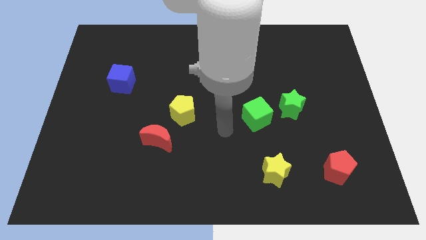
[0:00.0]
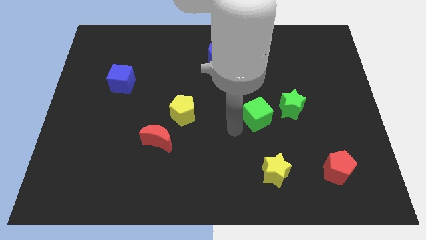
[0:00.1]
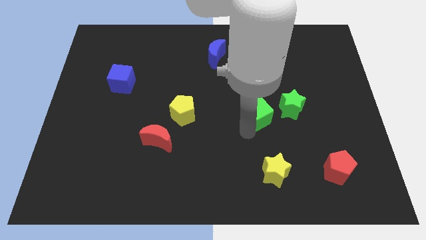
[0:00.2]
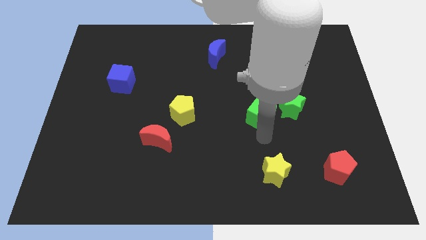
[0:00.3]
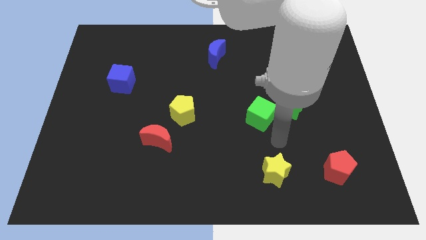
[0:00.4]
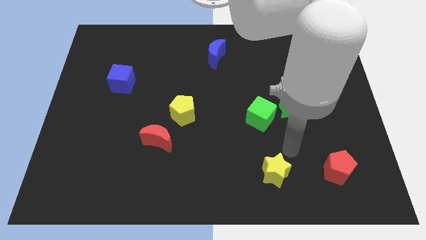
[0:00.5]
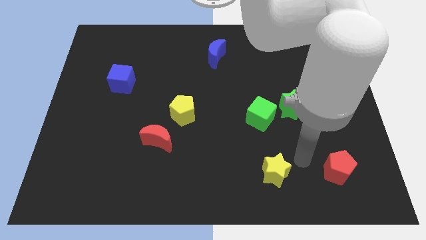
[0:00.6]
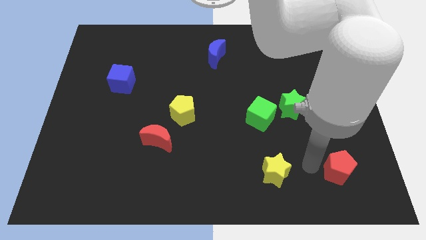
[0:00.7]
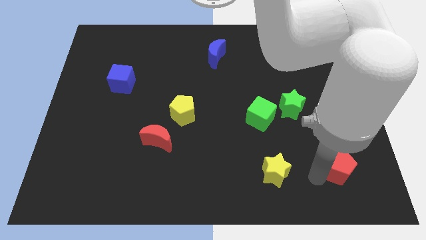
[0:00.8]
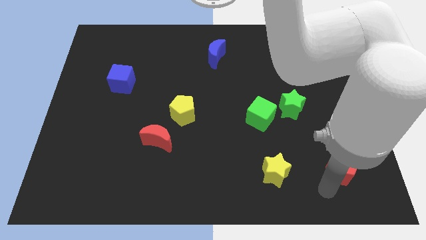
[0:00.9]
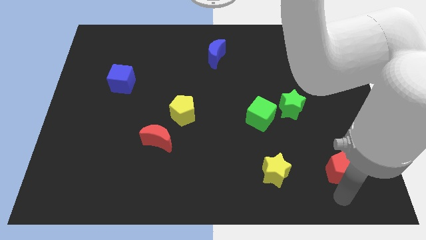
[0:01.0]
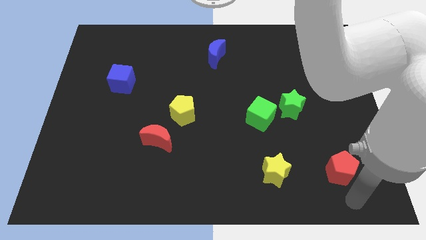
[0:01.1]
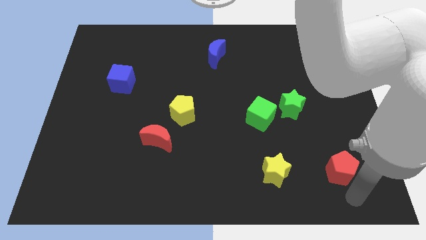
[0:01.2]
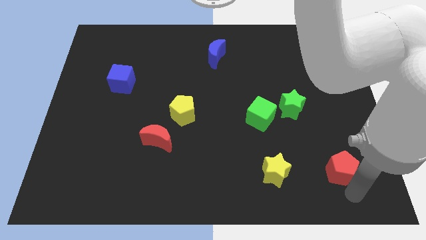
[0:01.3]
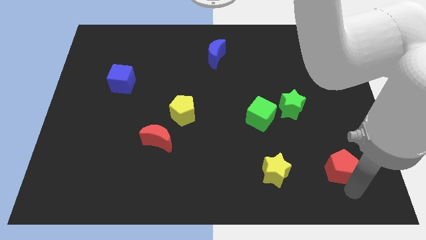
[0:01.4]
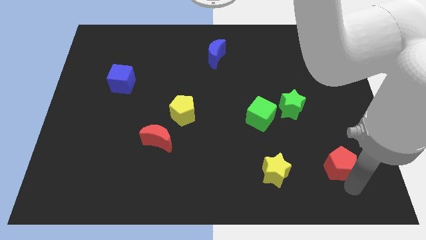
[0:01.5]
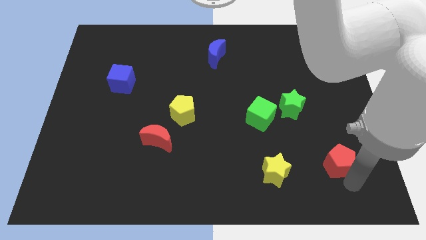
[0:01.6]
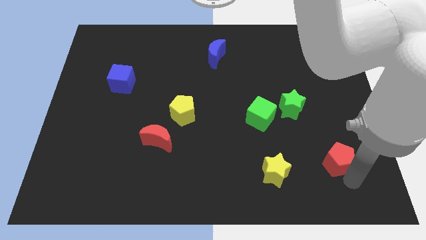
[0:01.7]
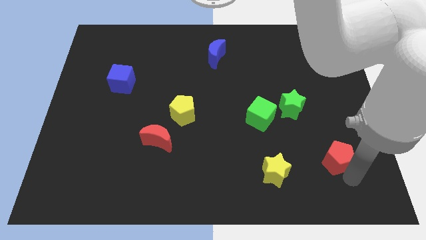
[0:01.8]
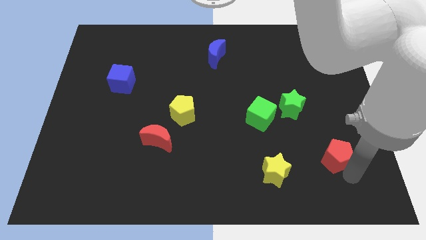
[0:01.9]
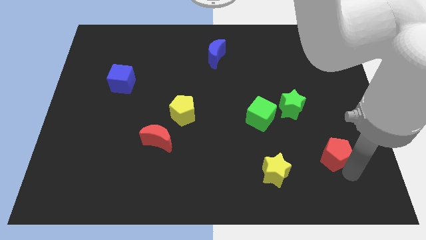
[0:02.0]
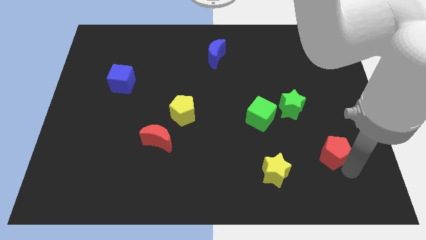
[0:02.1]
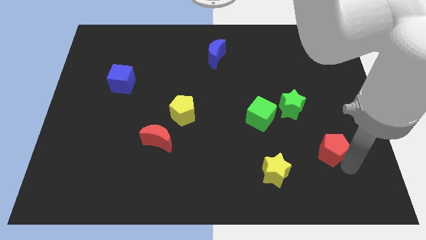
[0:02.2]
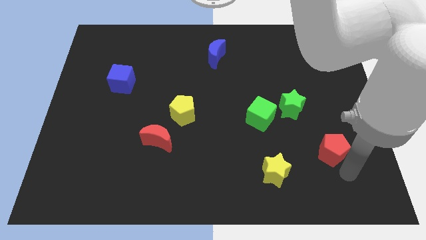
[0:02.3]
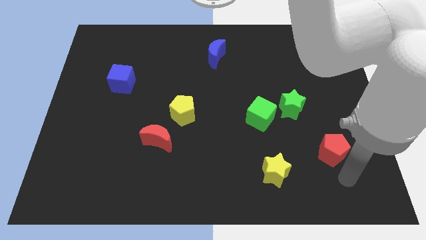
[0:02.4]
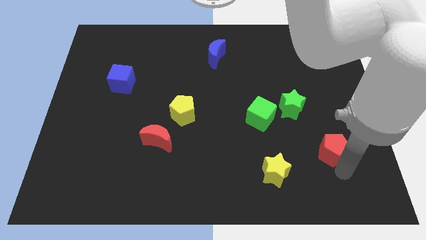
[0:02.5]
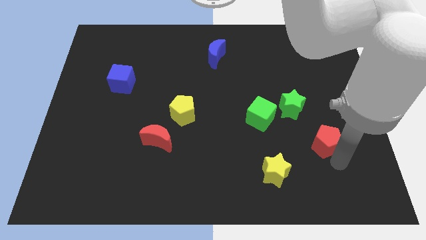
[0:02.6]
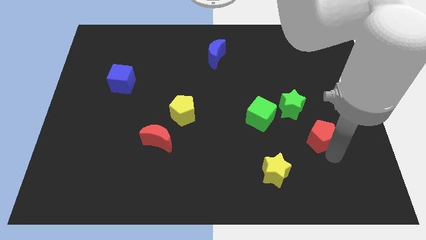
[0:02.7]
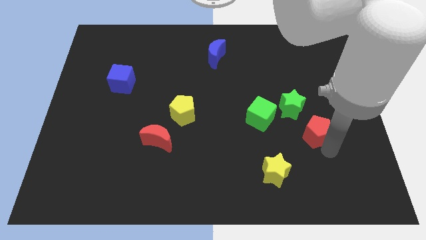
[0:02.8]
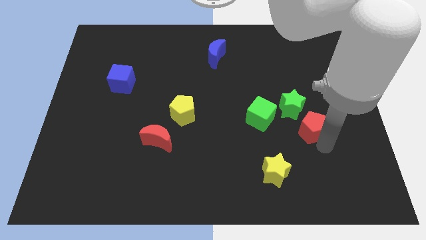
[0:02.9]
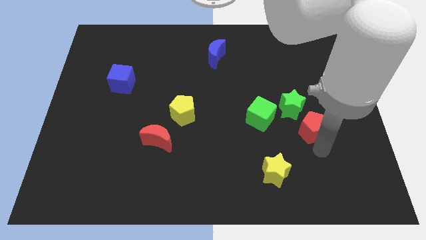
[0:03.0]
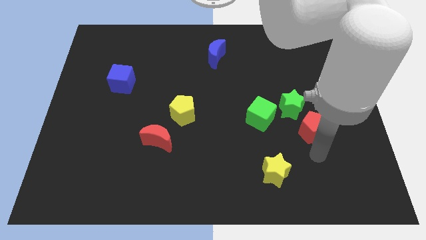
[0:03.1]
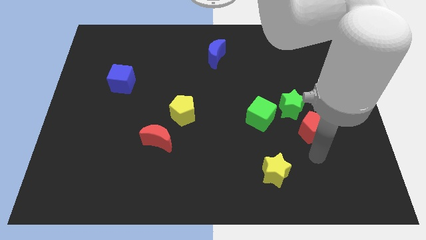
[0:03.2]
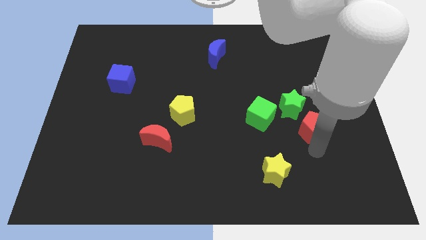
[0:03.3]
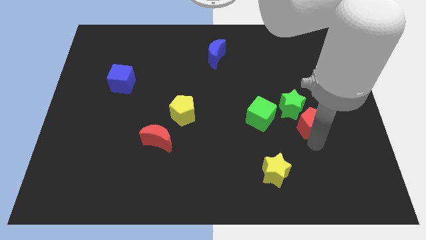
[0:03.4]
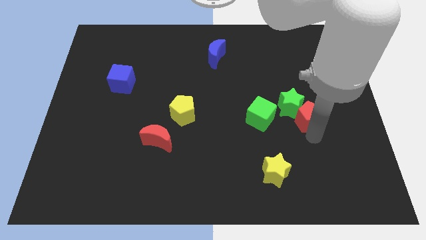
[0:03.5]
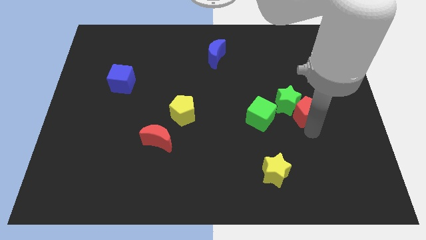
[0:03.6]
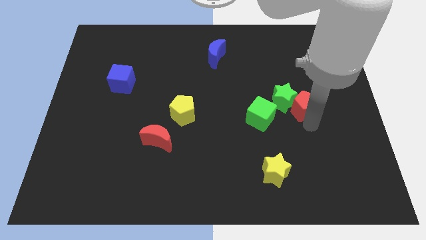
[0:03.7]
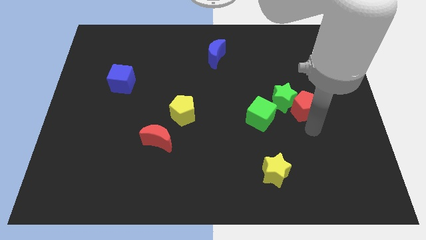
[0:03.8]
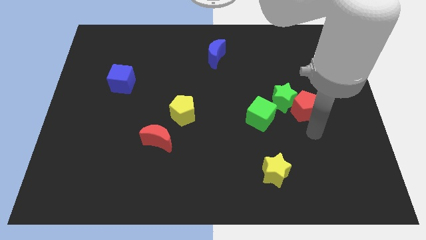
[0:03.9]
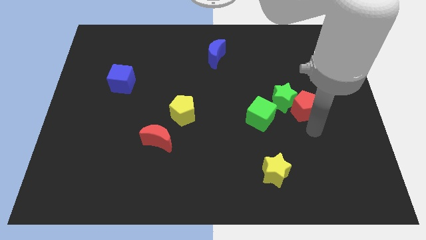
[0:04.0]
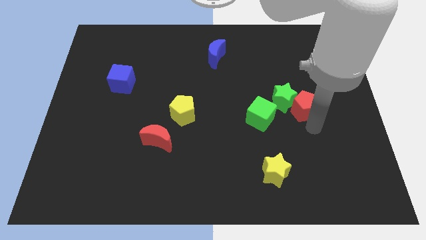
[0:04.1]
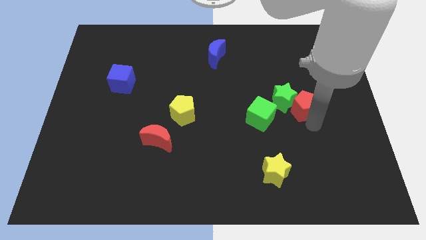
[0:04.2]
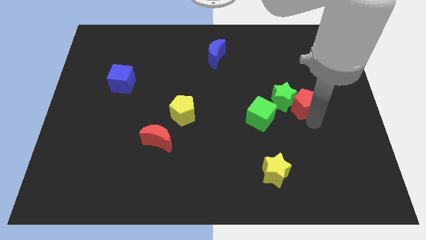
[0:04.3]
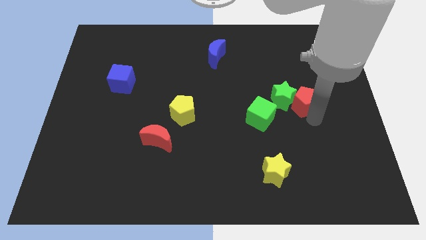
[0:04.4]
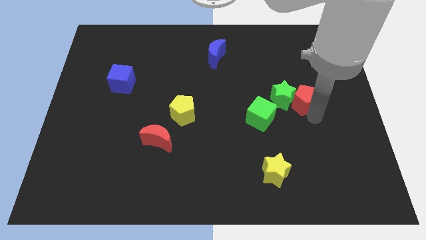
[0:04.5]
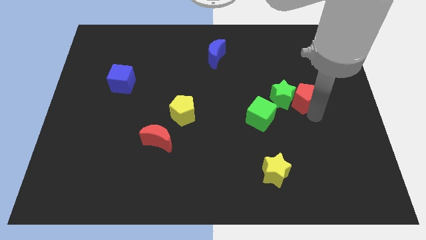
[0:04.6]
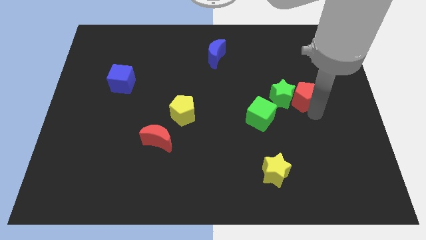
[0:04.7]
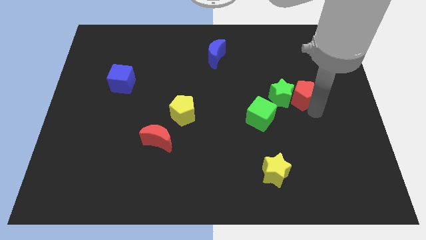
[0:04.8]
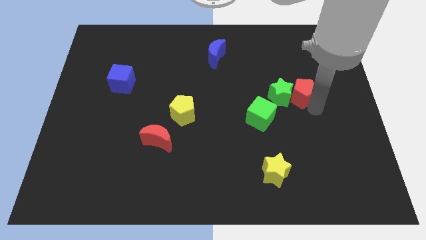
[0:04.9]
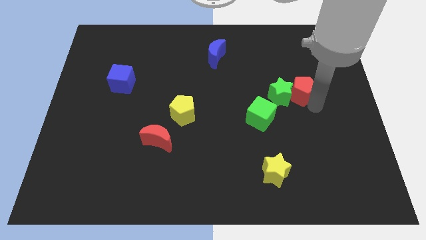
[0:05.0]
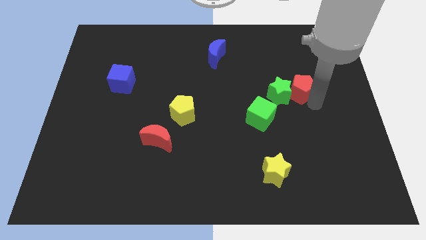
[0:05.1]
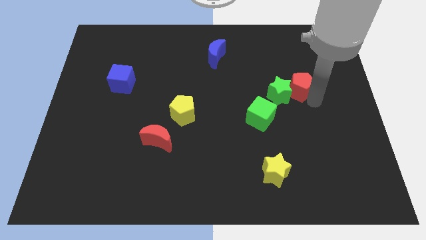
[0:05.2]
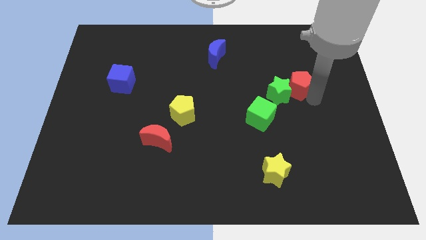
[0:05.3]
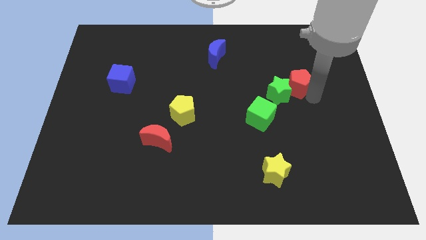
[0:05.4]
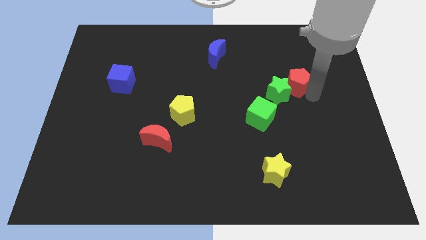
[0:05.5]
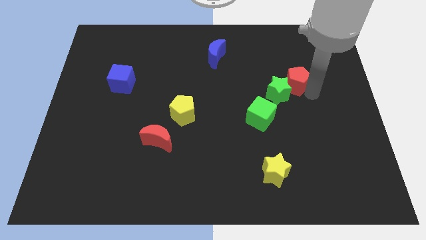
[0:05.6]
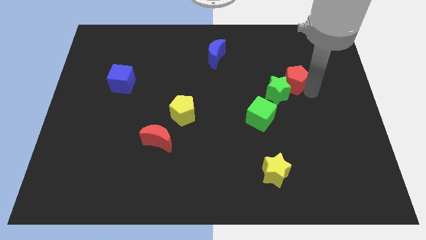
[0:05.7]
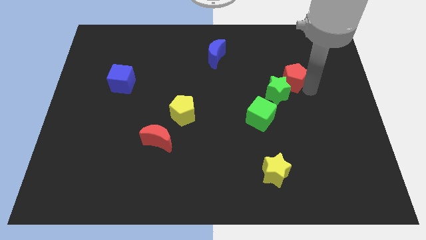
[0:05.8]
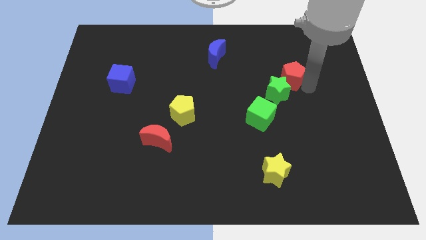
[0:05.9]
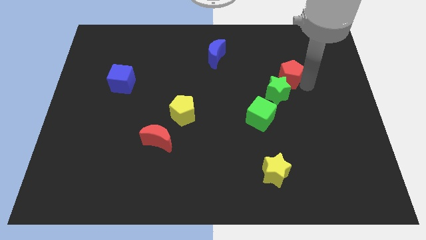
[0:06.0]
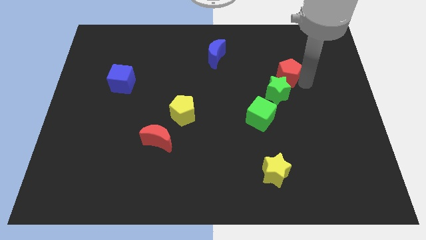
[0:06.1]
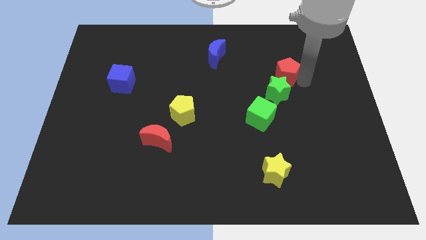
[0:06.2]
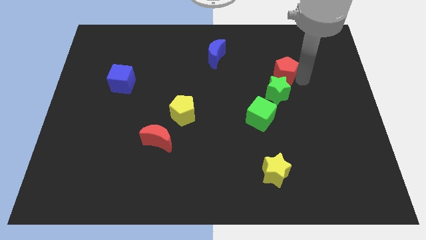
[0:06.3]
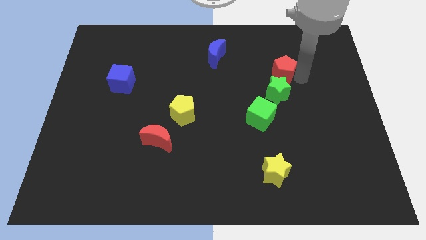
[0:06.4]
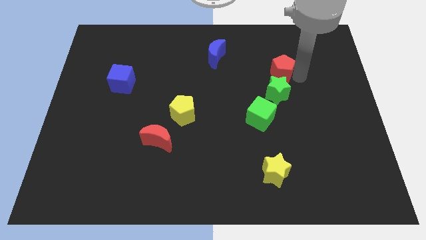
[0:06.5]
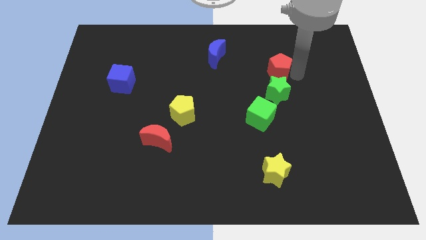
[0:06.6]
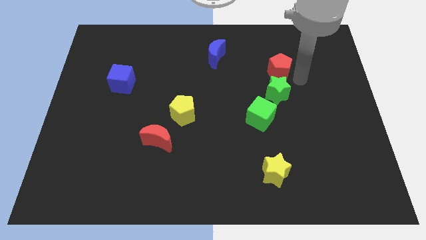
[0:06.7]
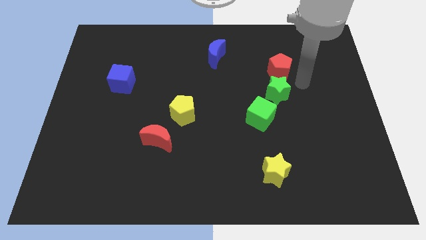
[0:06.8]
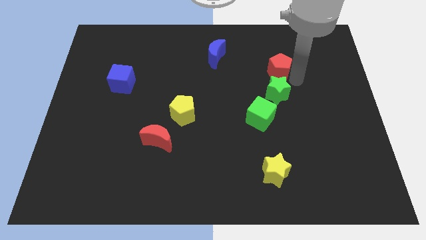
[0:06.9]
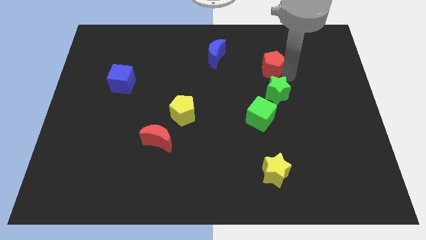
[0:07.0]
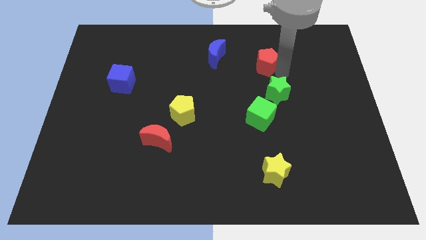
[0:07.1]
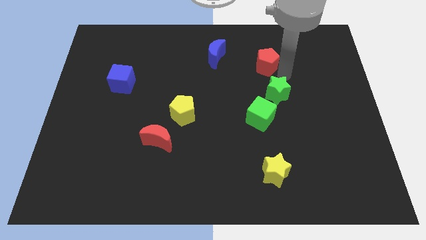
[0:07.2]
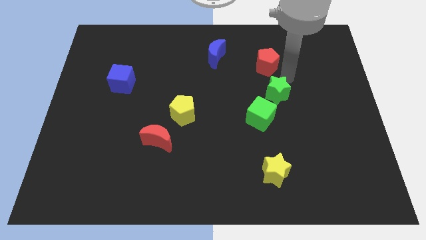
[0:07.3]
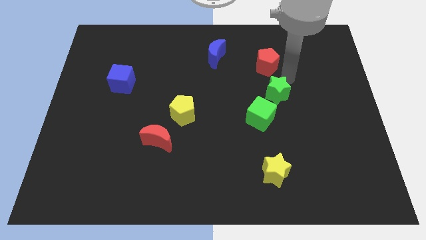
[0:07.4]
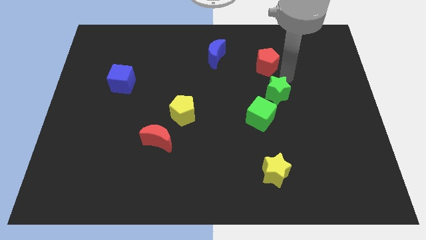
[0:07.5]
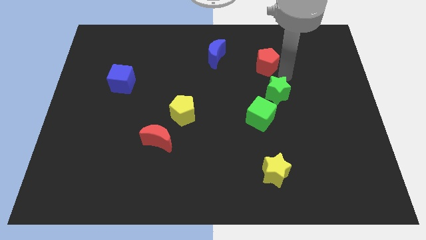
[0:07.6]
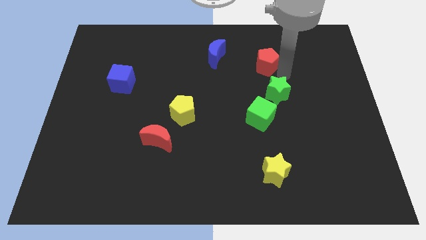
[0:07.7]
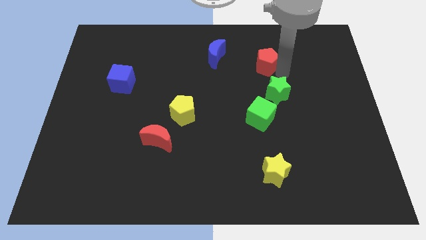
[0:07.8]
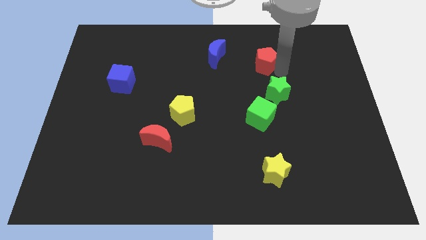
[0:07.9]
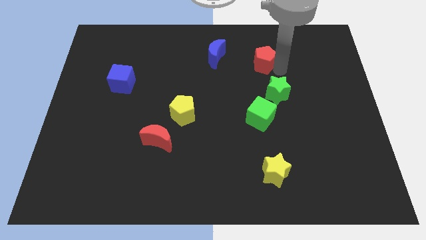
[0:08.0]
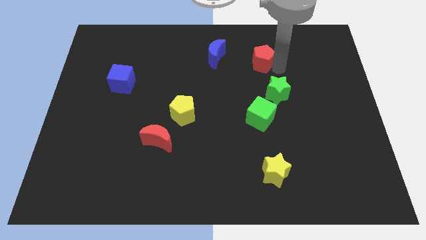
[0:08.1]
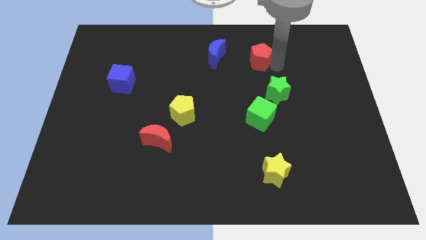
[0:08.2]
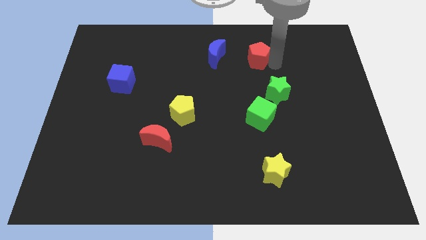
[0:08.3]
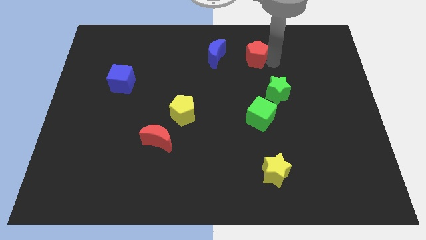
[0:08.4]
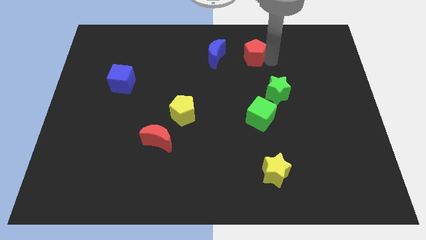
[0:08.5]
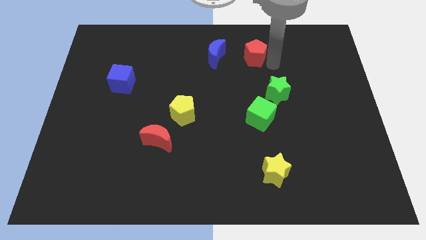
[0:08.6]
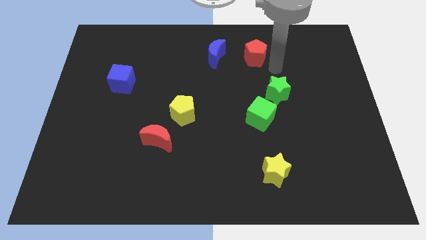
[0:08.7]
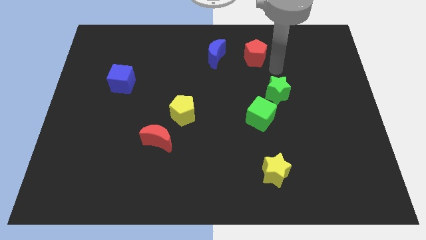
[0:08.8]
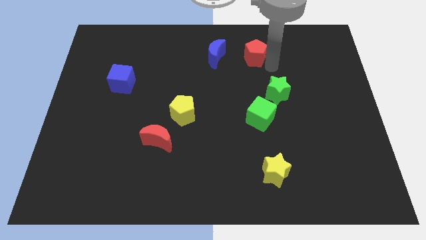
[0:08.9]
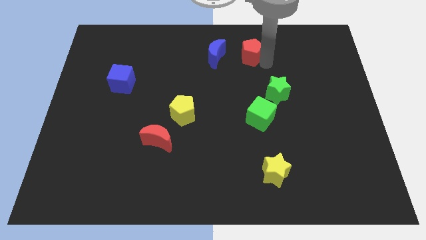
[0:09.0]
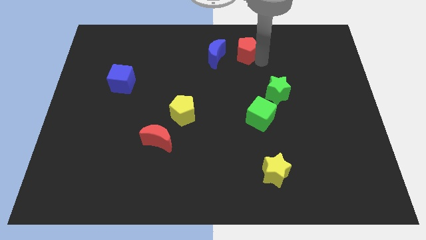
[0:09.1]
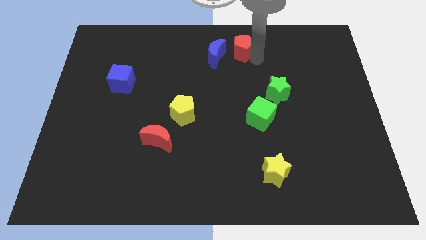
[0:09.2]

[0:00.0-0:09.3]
move the red pentagon to the top
